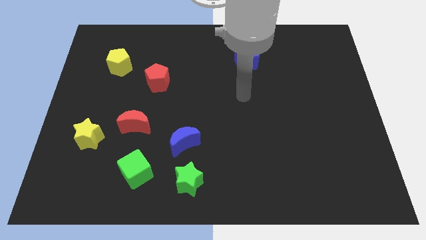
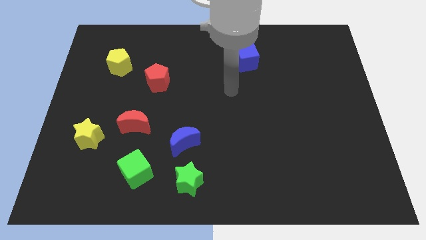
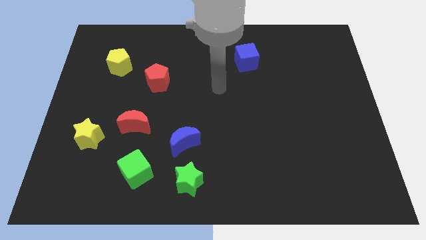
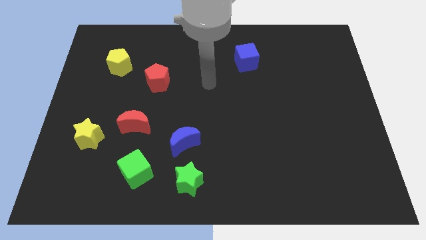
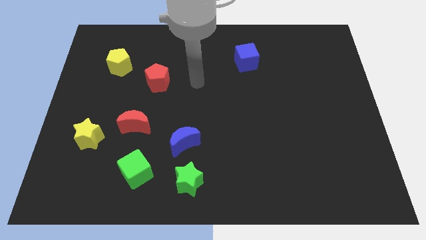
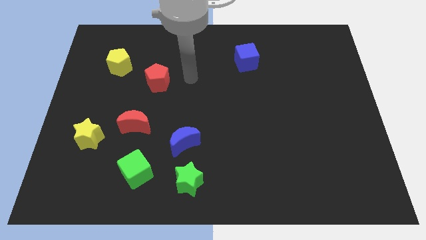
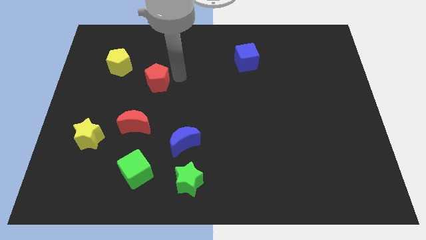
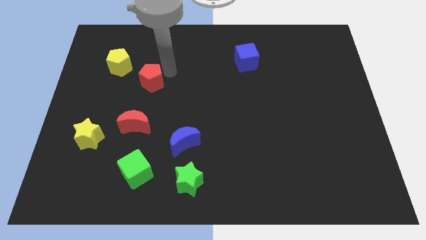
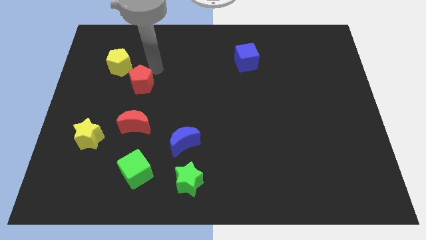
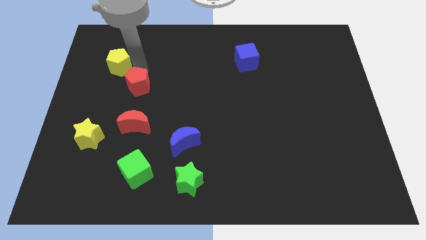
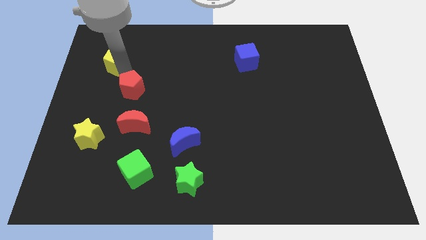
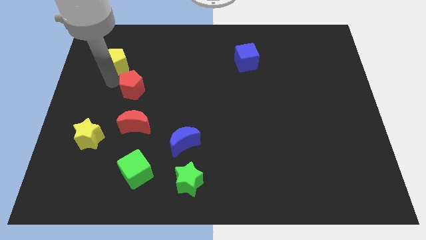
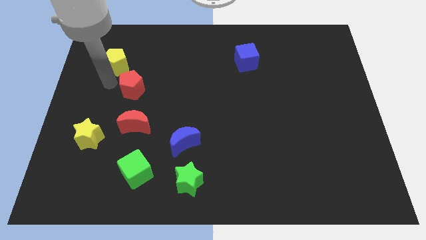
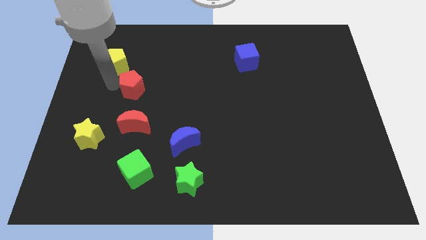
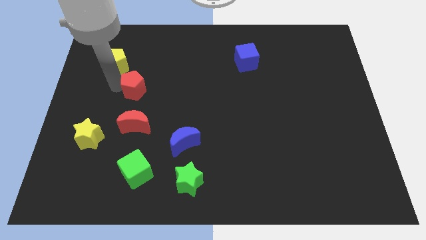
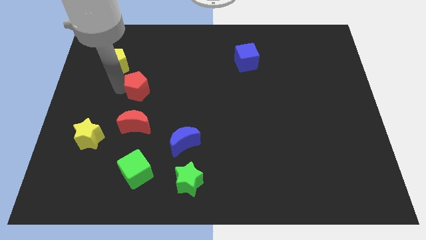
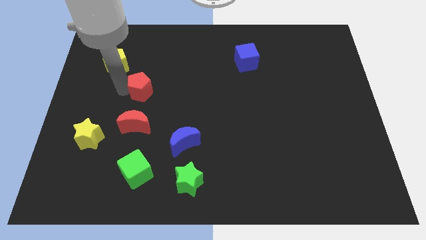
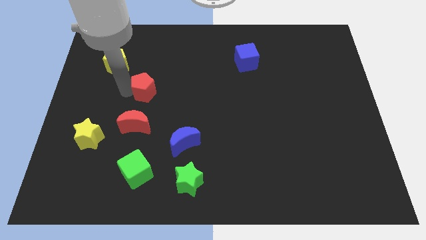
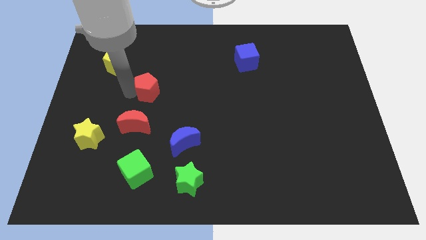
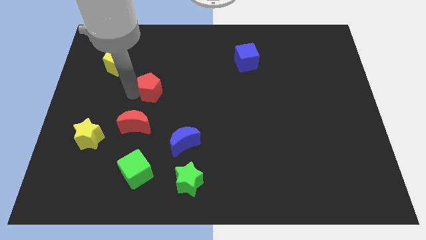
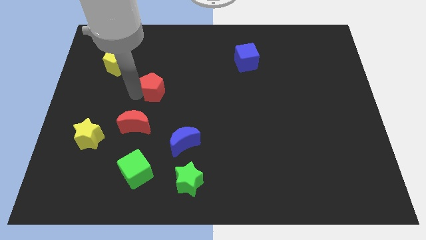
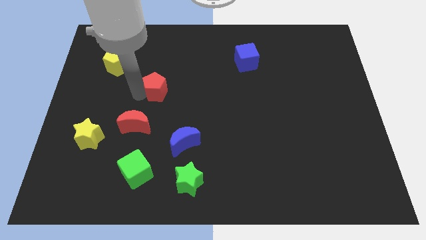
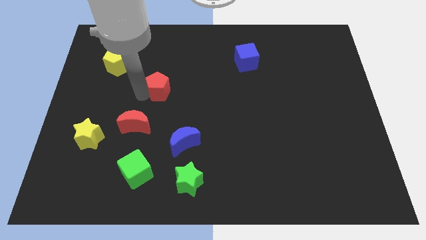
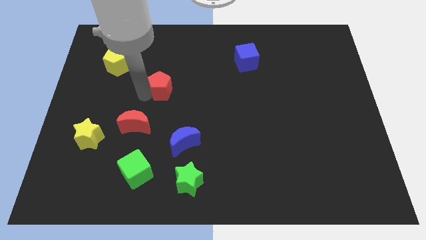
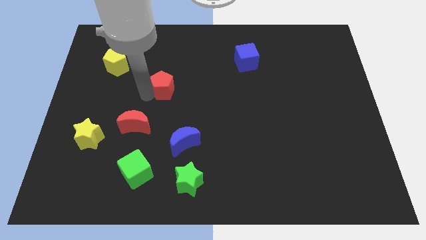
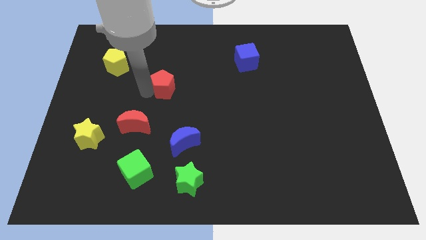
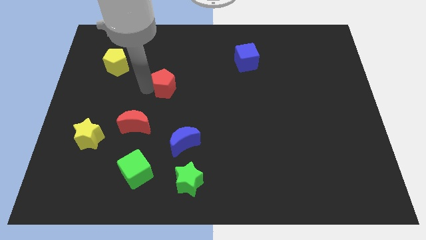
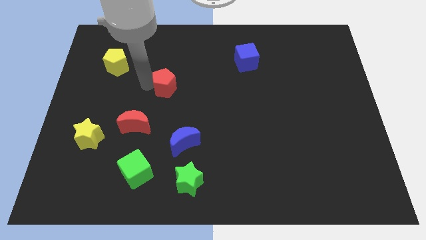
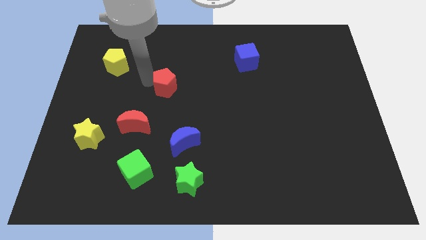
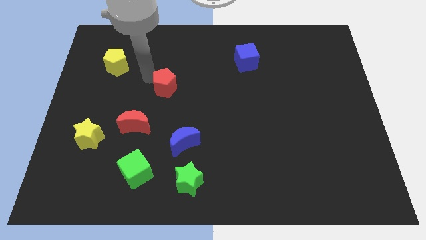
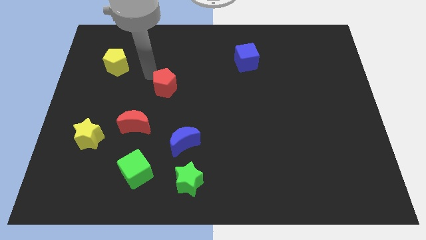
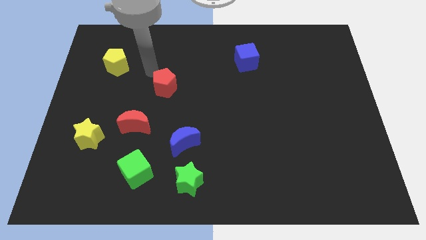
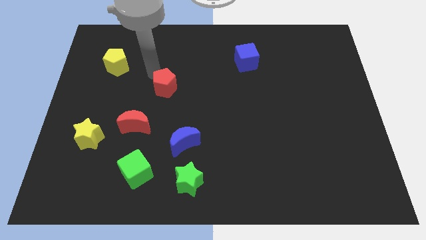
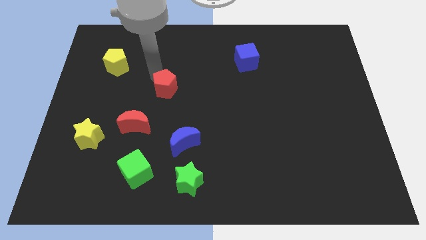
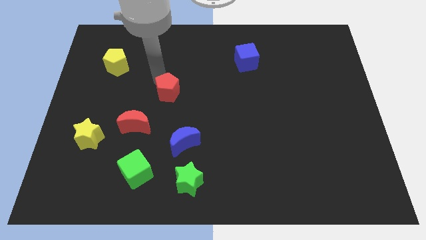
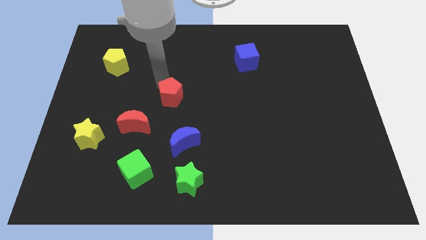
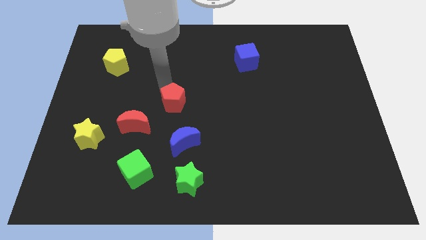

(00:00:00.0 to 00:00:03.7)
move the red pentagon diagonally downwards and to the right a little

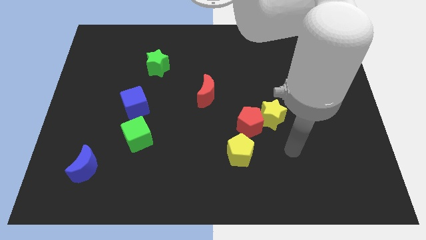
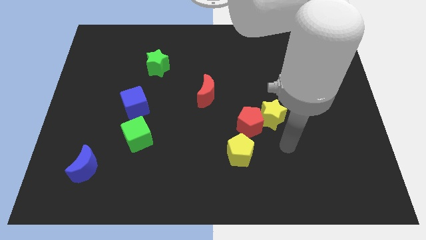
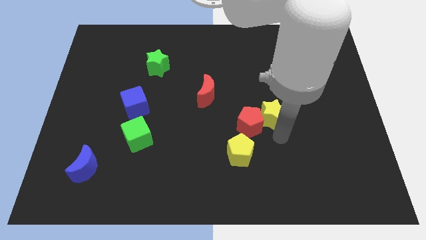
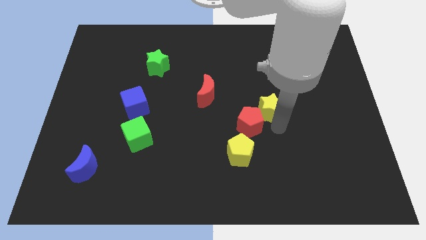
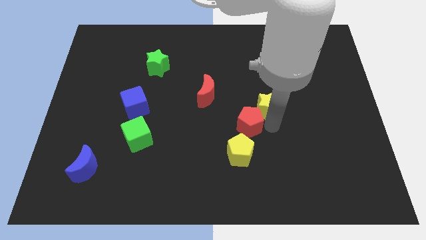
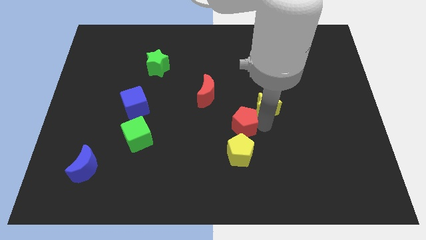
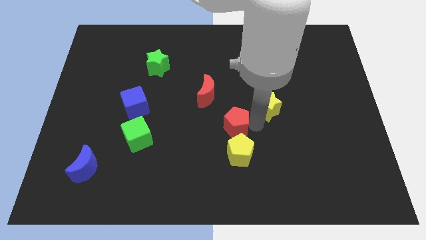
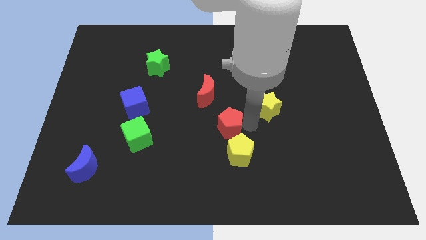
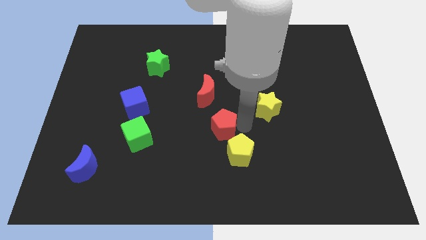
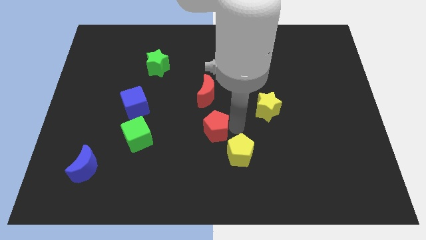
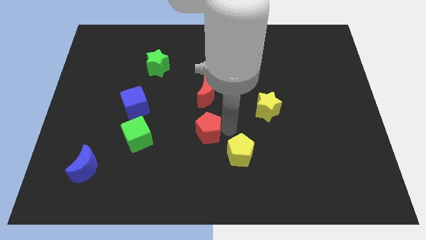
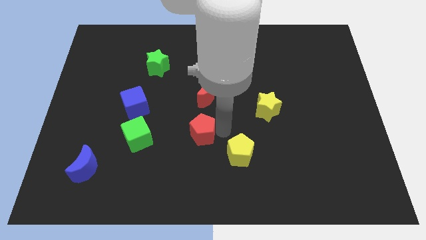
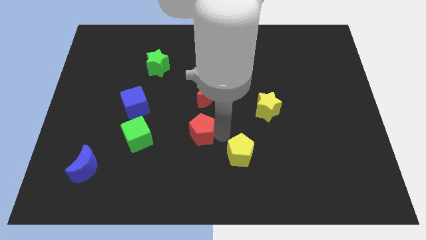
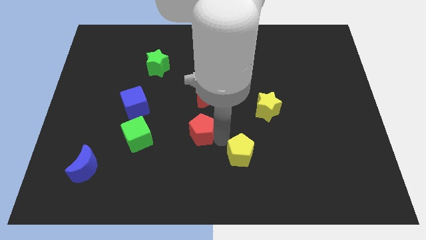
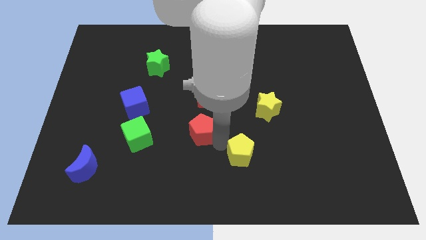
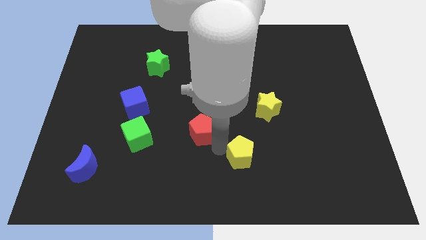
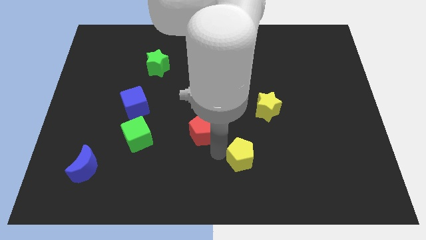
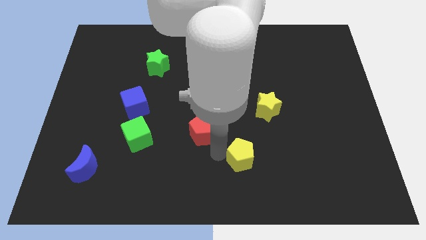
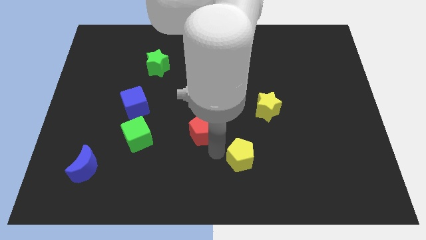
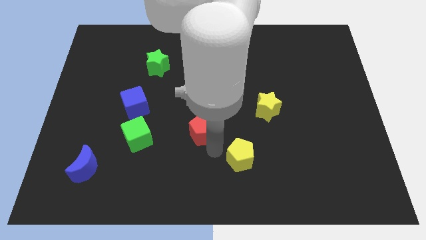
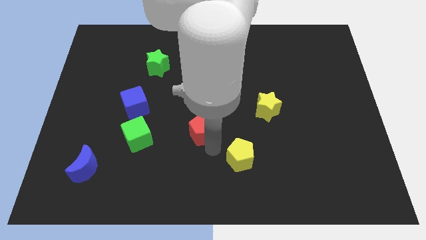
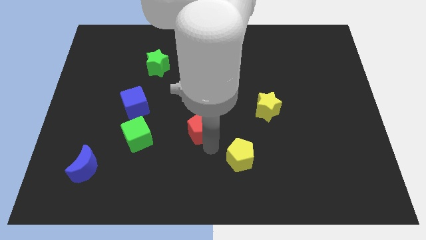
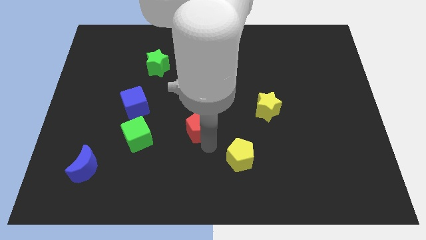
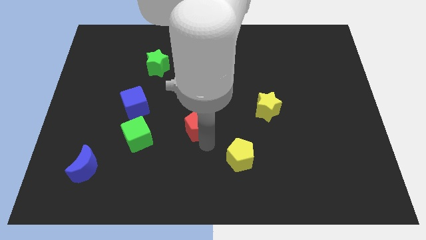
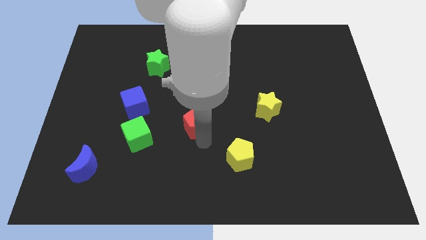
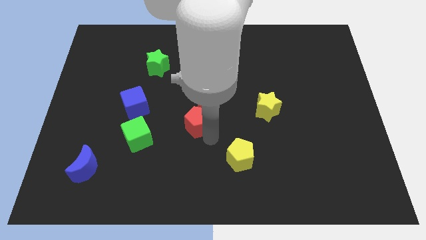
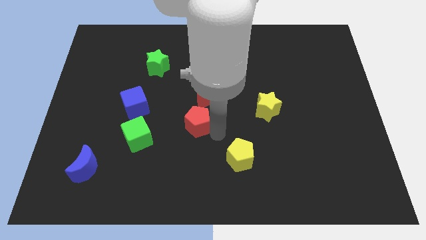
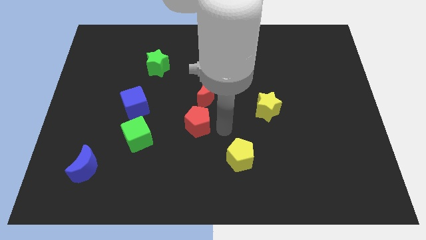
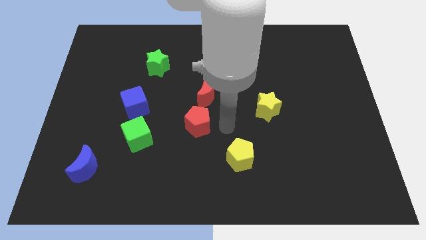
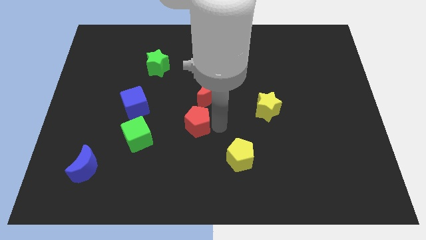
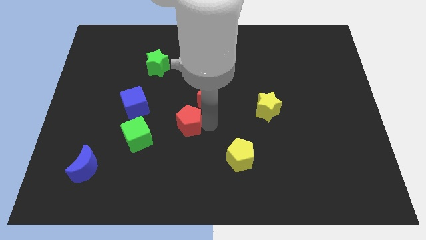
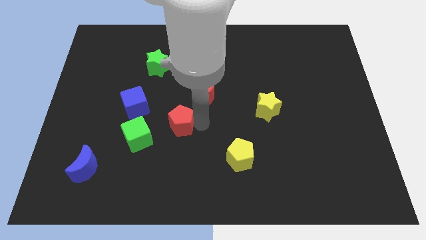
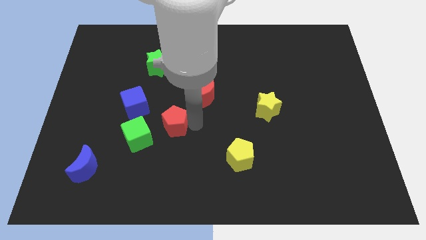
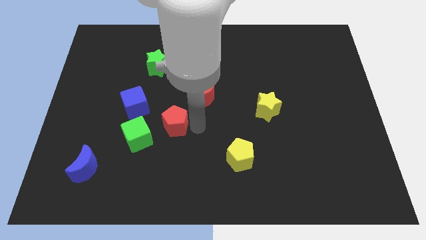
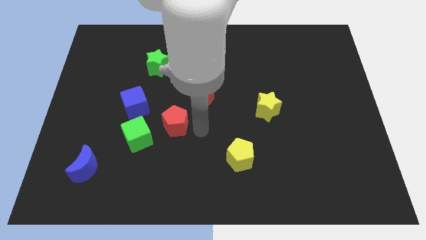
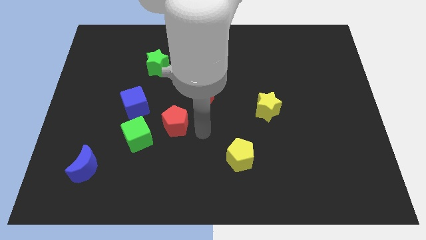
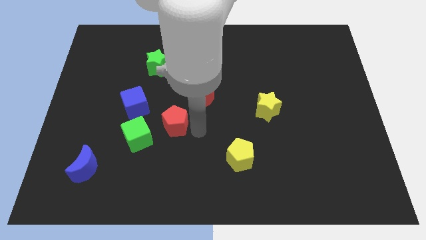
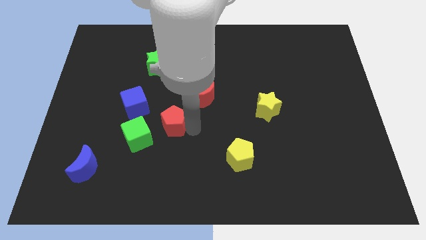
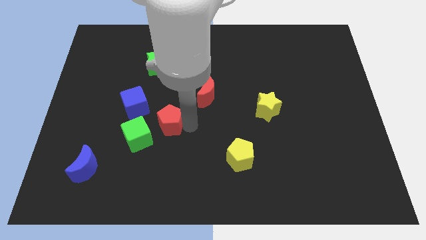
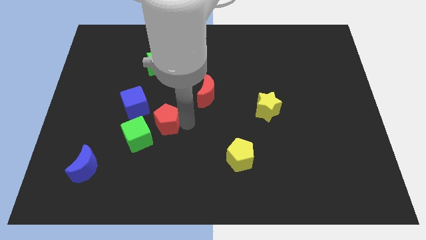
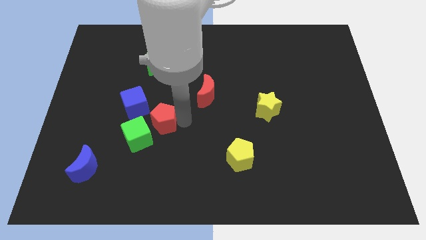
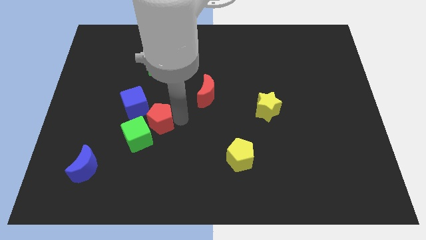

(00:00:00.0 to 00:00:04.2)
move the red pentagon to the left
